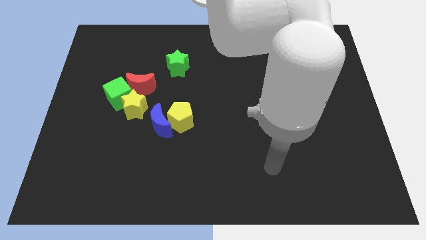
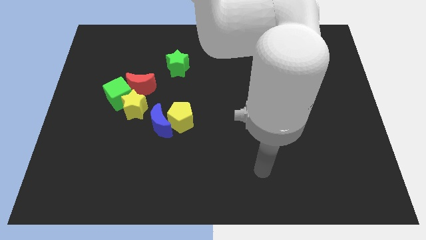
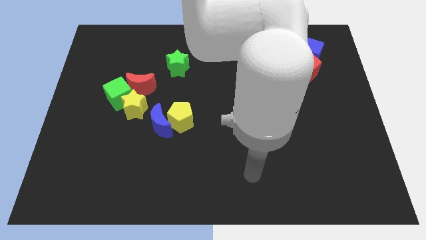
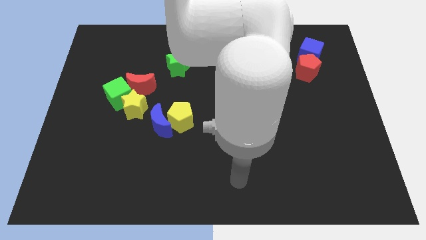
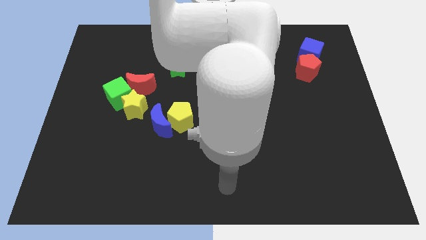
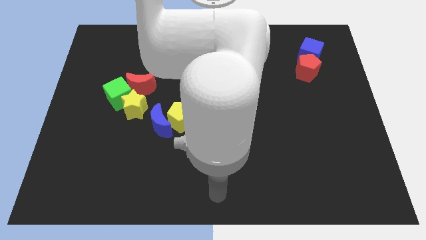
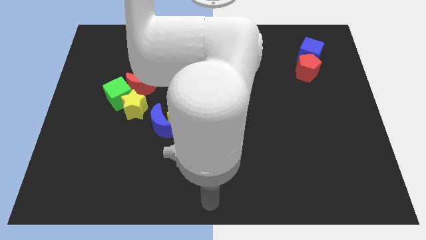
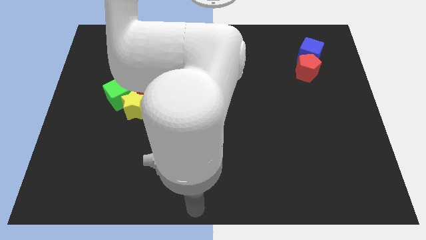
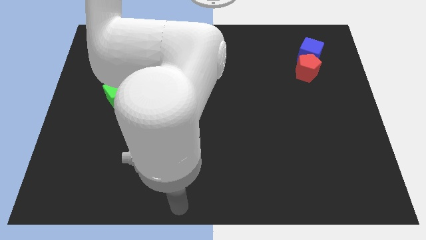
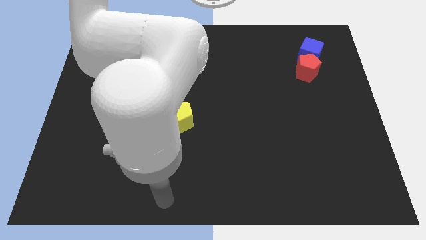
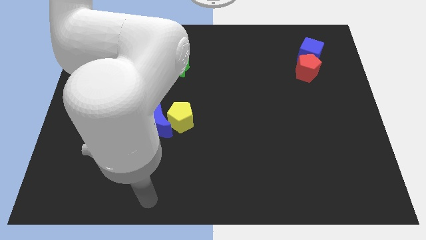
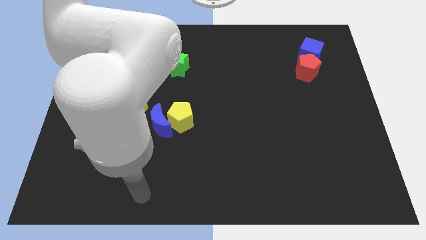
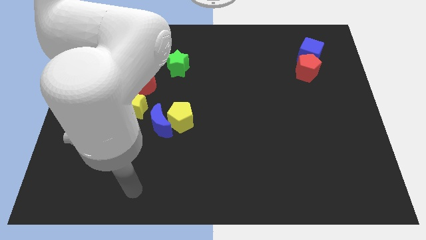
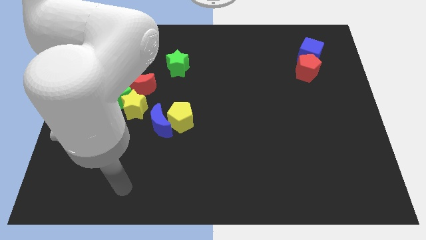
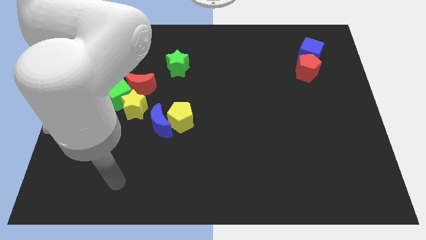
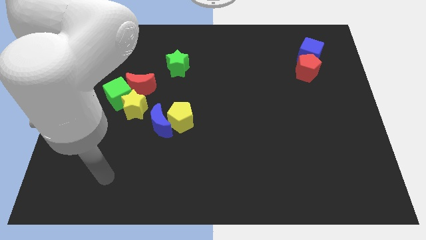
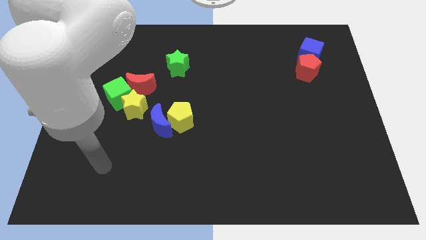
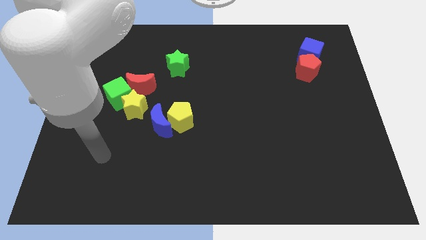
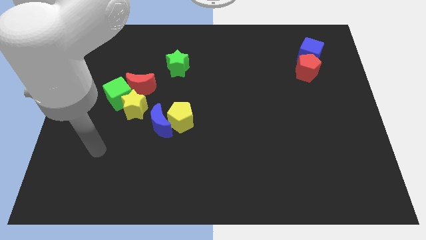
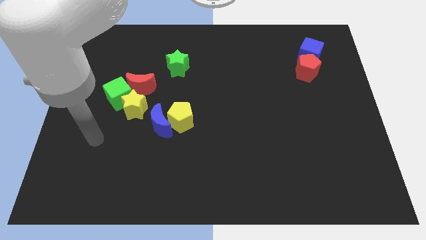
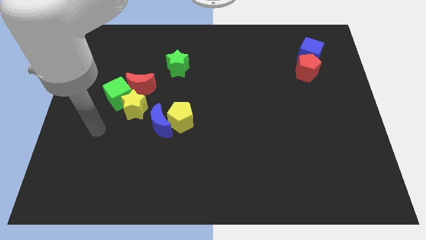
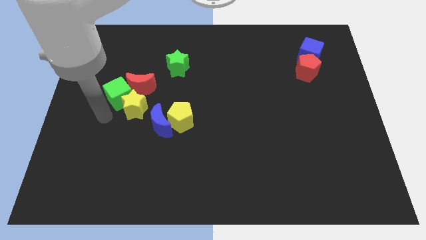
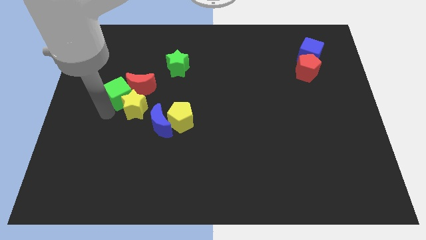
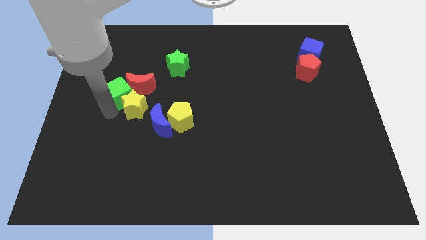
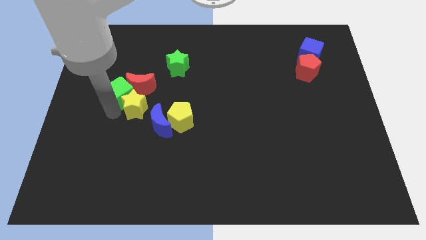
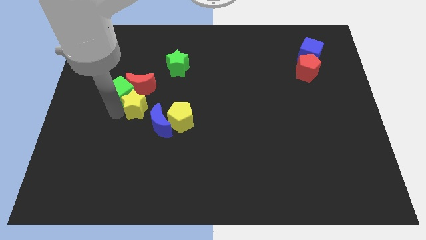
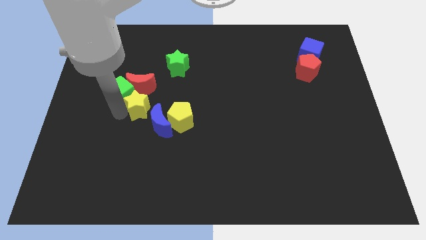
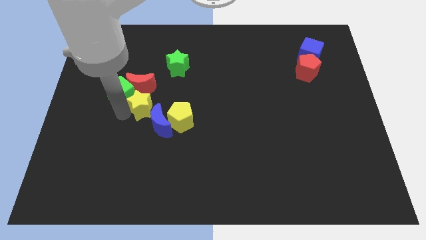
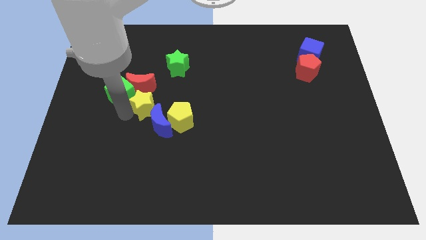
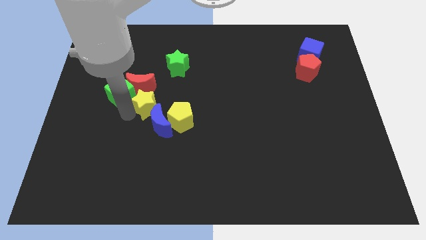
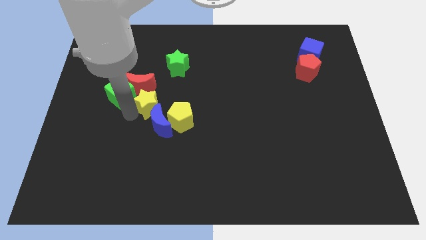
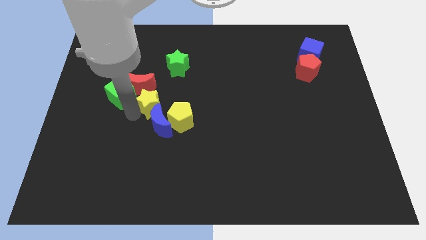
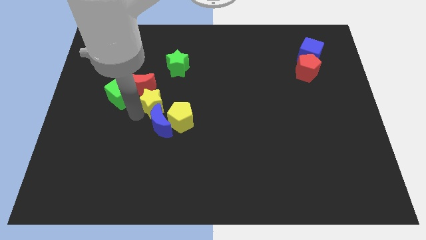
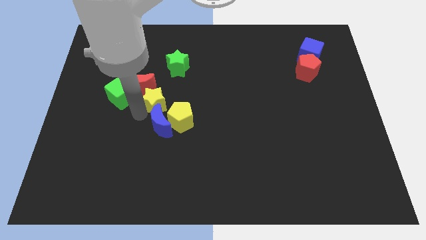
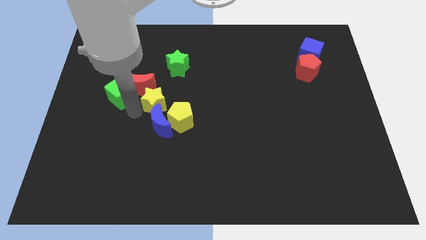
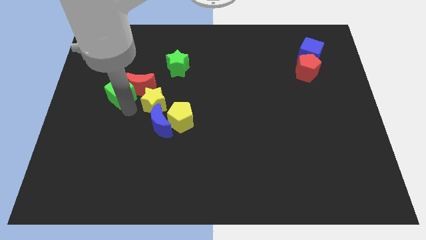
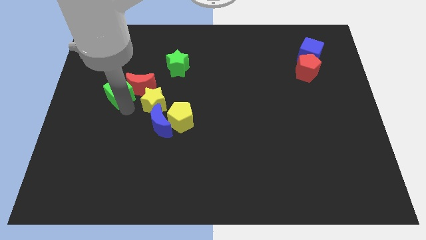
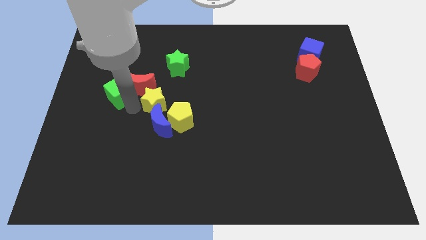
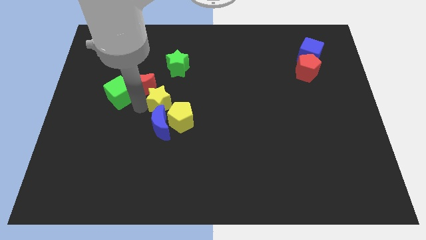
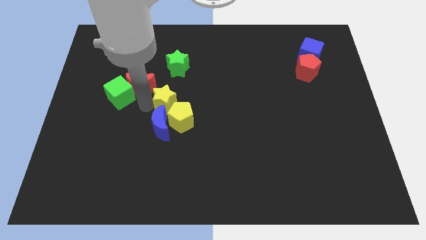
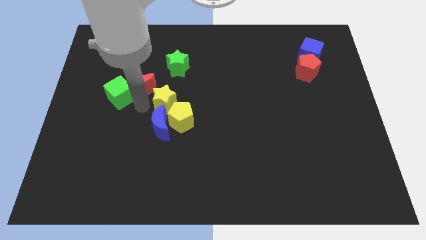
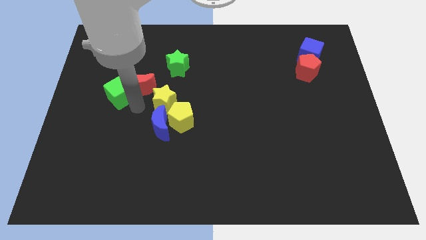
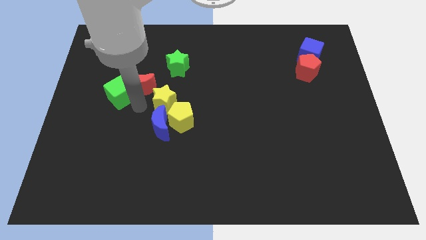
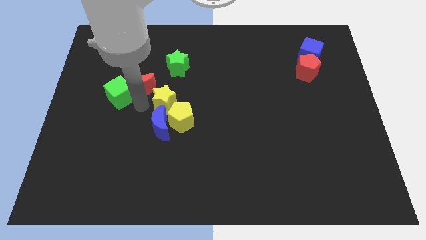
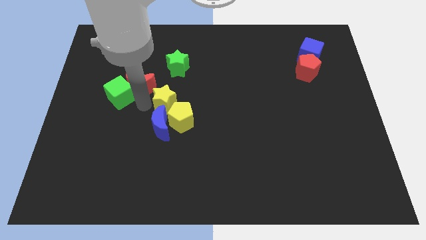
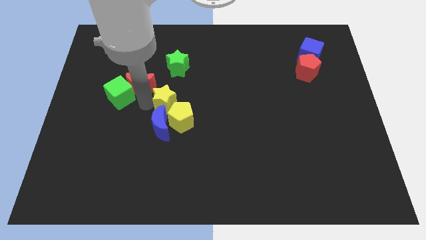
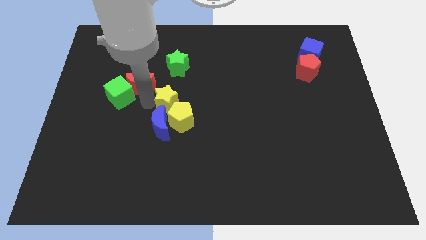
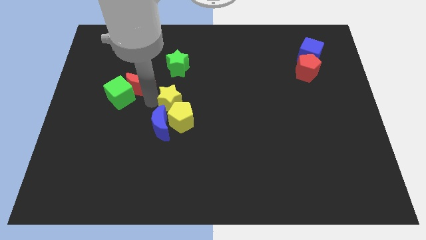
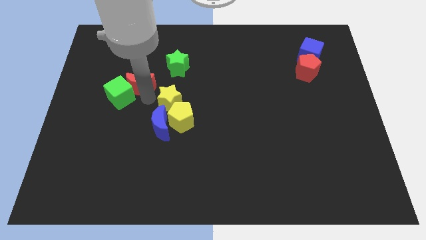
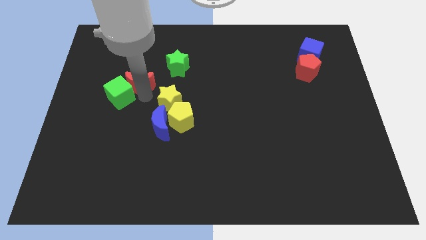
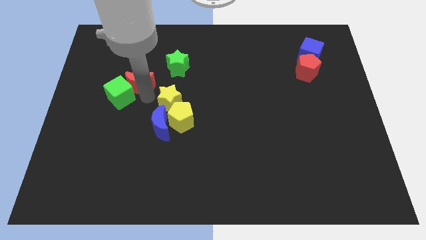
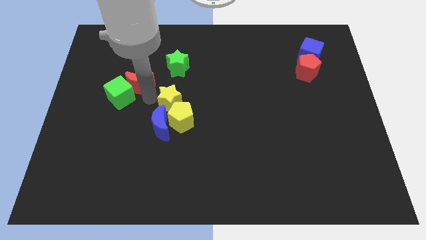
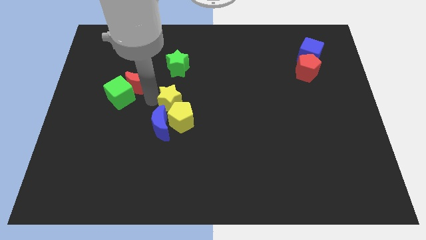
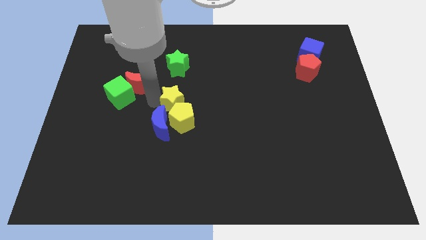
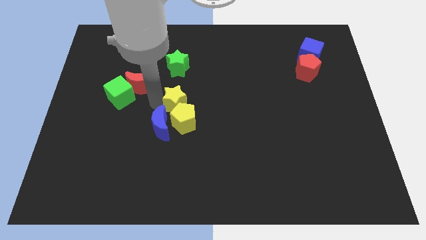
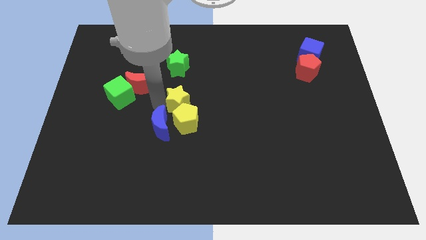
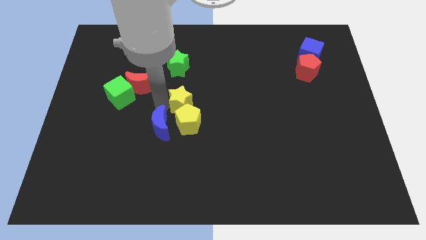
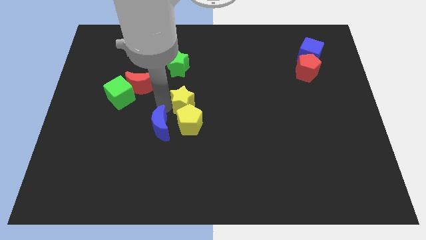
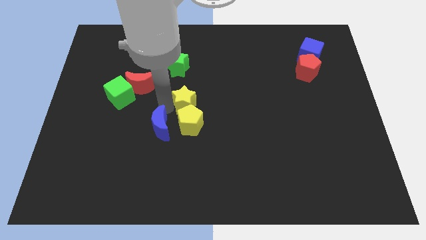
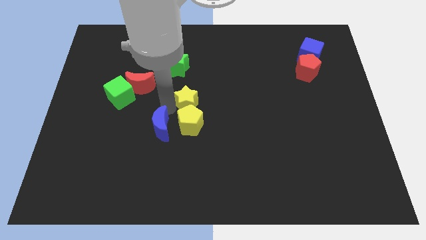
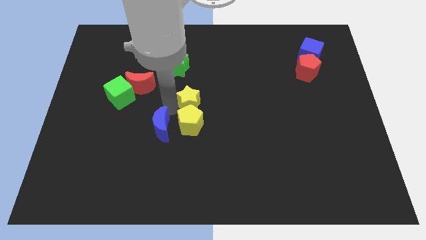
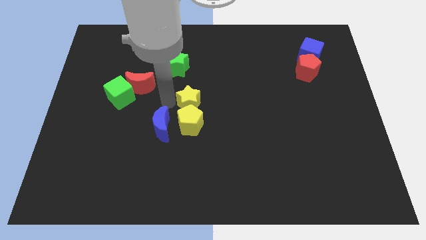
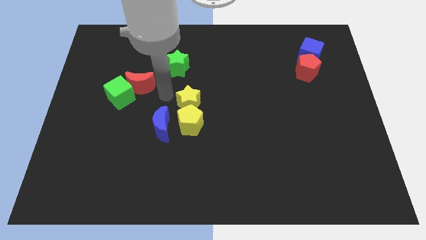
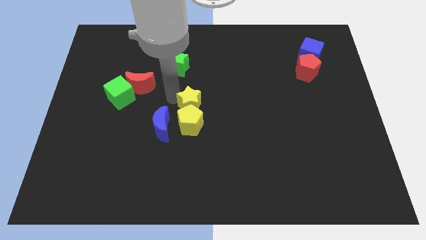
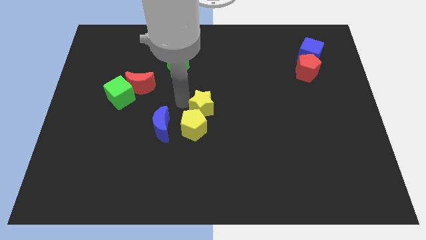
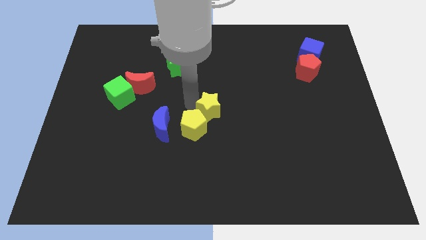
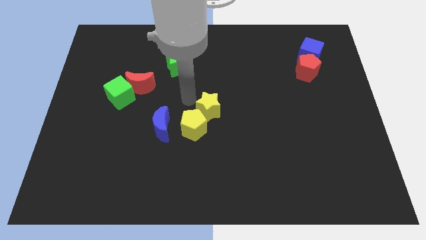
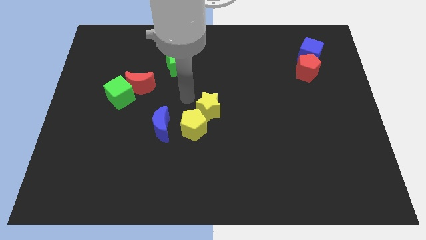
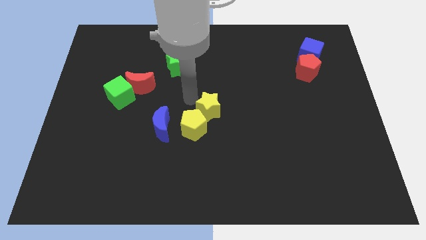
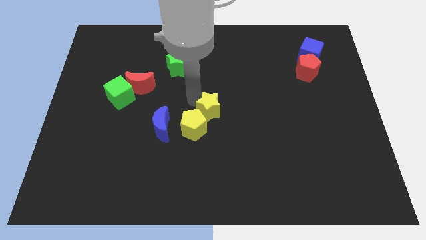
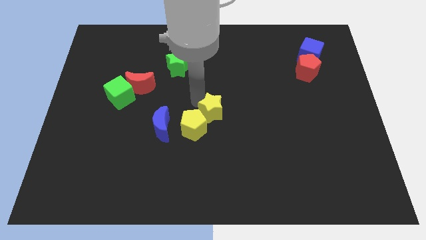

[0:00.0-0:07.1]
slide the yellow star just right of the yellow pentagon

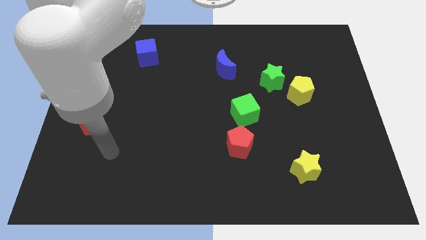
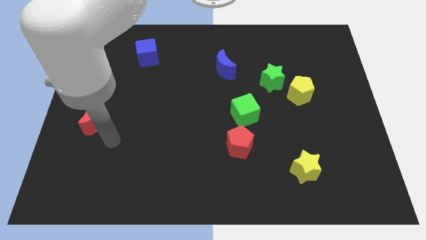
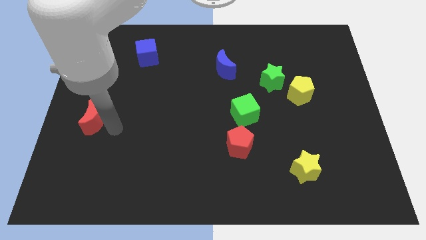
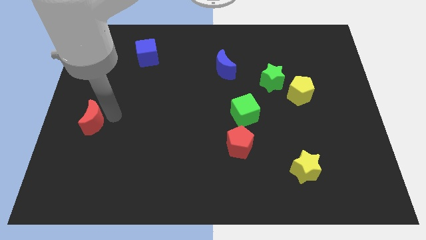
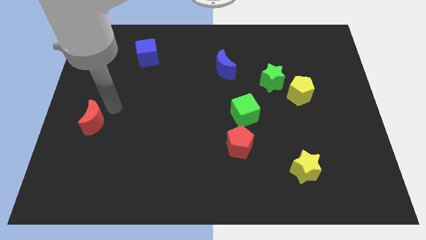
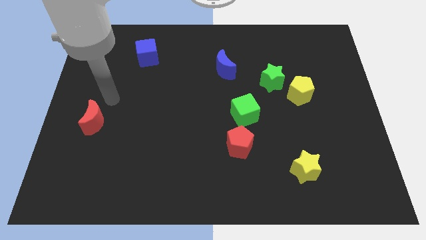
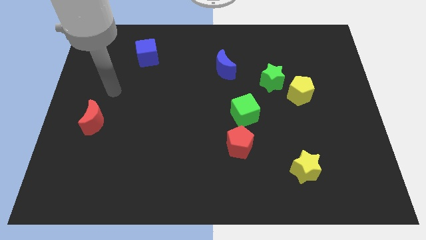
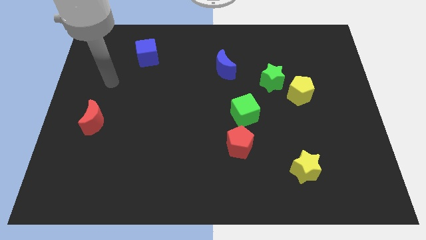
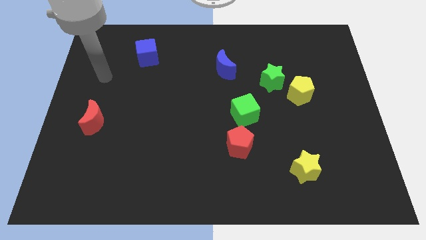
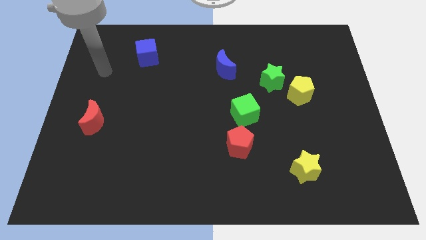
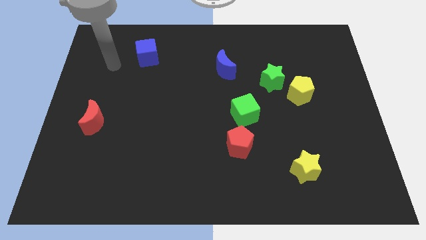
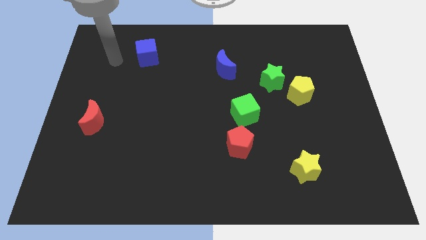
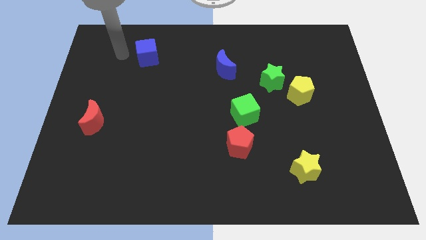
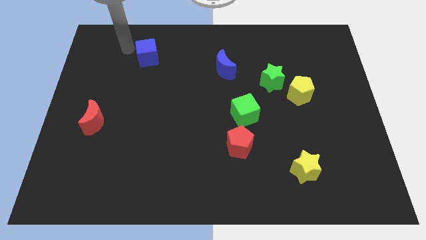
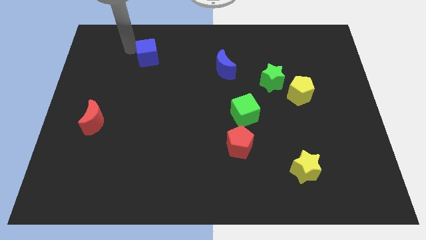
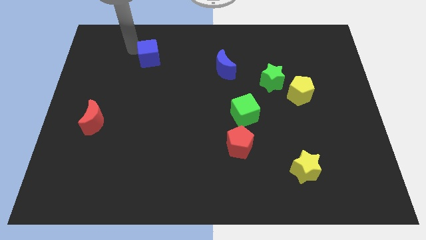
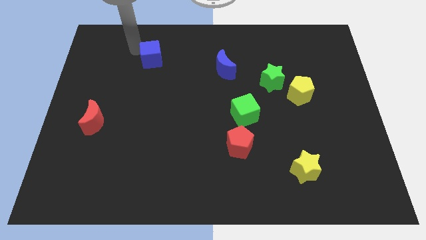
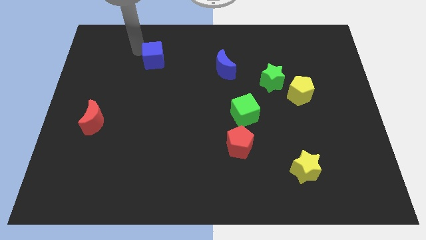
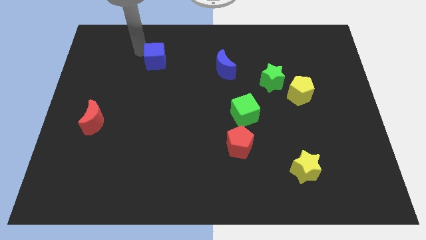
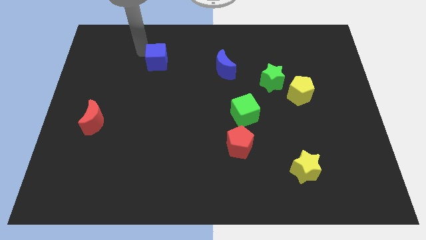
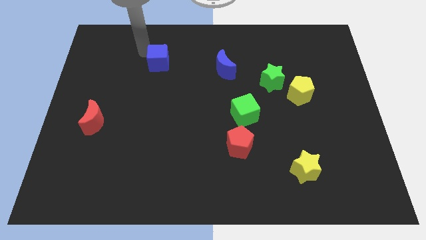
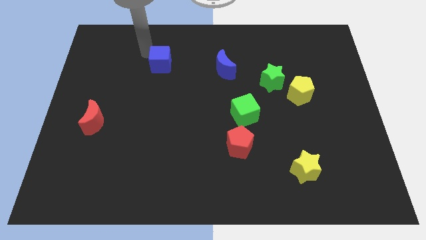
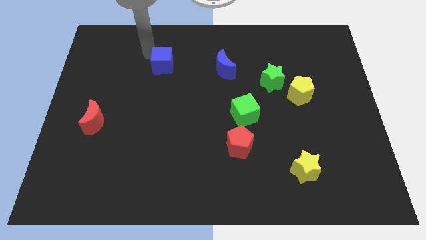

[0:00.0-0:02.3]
put the blue cube just left of the blue moon
